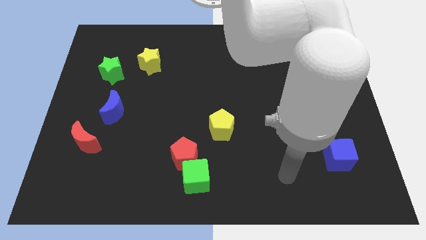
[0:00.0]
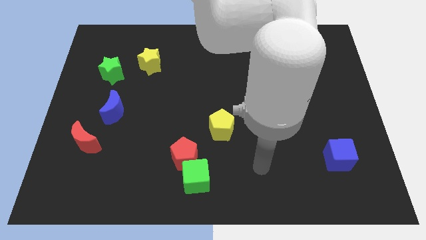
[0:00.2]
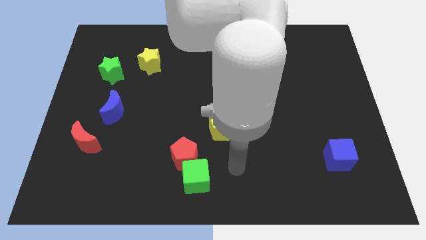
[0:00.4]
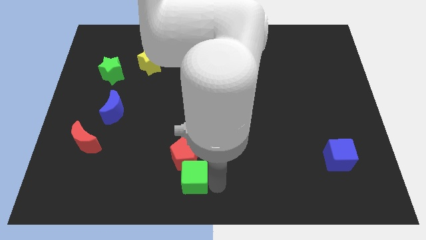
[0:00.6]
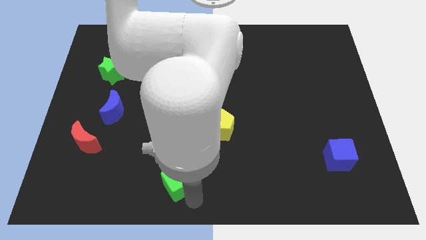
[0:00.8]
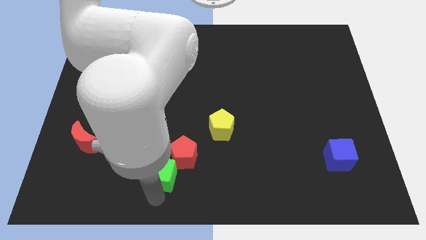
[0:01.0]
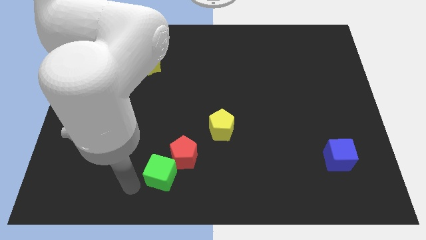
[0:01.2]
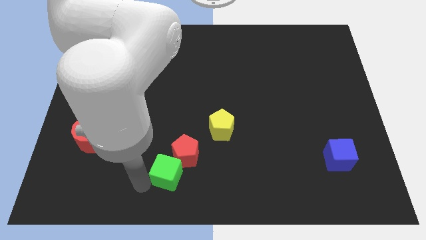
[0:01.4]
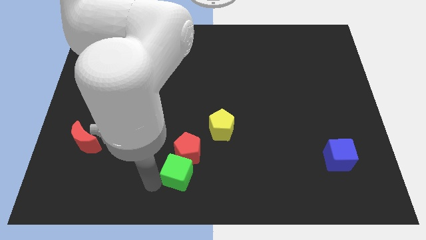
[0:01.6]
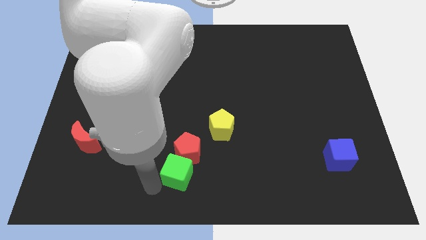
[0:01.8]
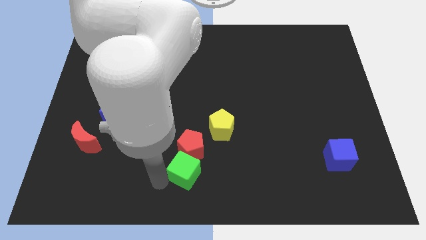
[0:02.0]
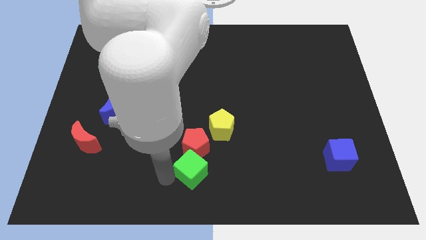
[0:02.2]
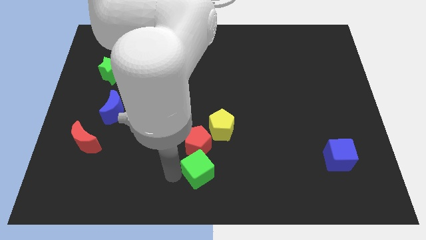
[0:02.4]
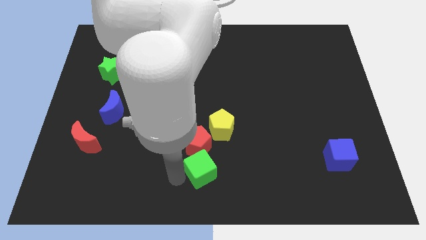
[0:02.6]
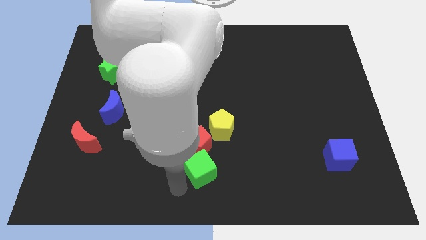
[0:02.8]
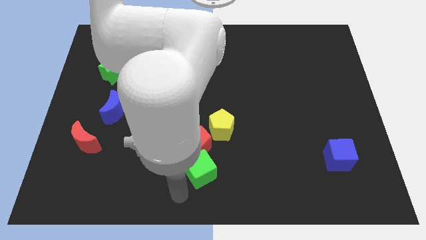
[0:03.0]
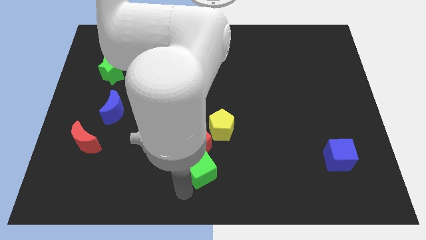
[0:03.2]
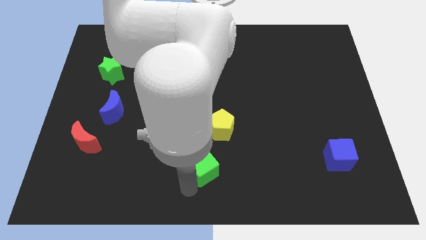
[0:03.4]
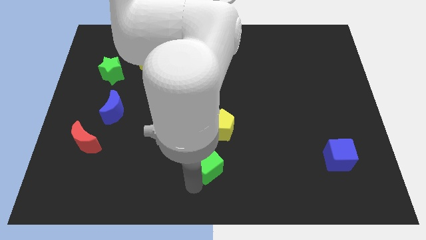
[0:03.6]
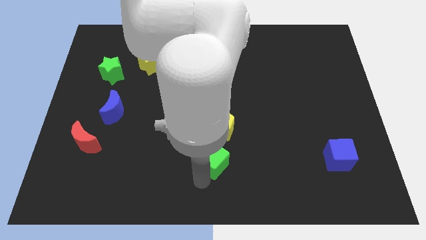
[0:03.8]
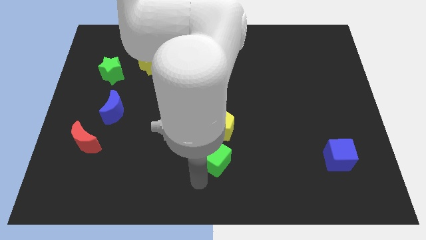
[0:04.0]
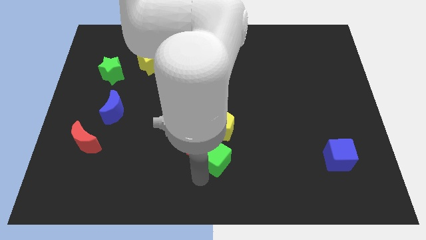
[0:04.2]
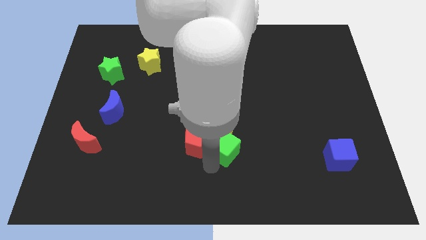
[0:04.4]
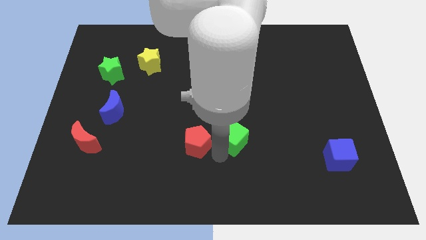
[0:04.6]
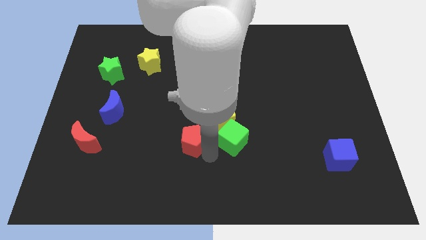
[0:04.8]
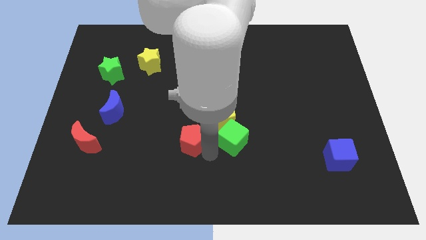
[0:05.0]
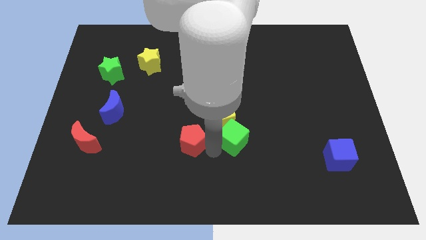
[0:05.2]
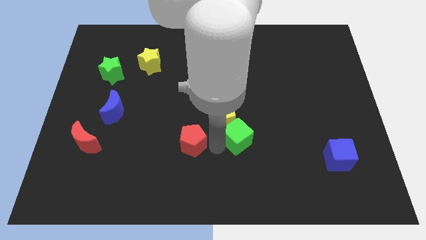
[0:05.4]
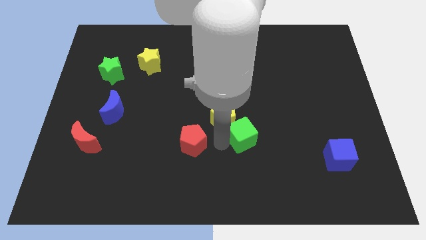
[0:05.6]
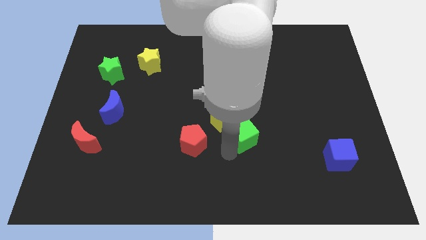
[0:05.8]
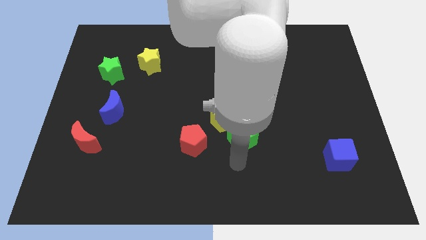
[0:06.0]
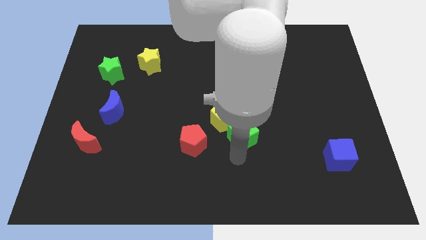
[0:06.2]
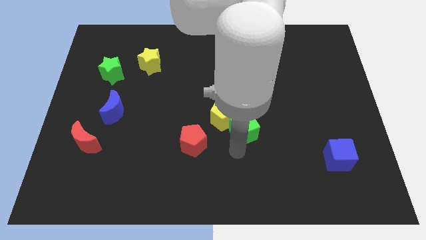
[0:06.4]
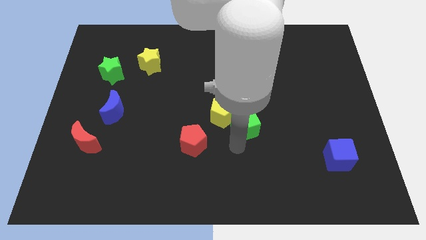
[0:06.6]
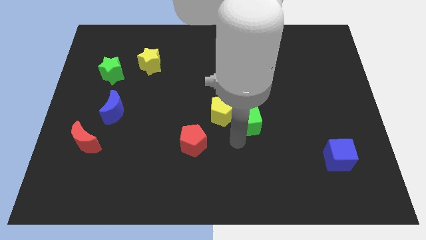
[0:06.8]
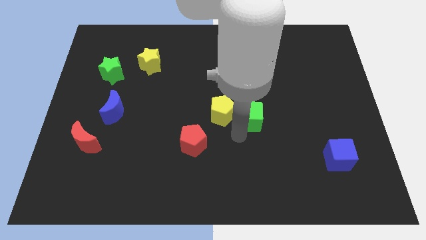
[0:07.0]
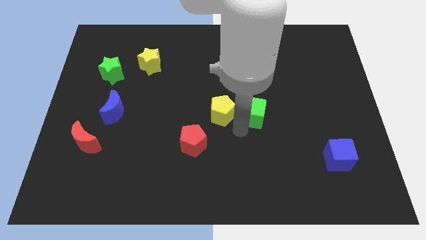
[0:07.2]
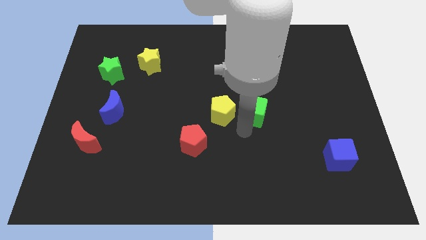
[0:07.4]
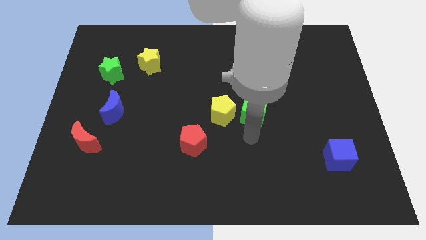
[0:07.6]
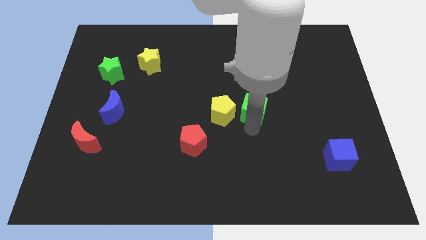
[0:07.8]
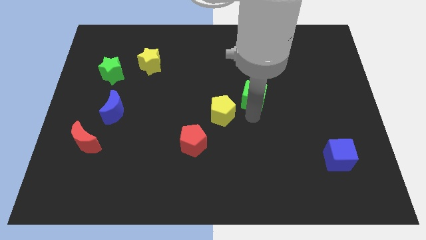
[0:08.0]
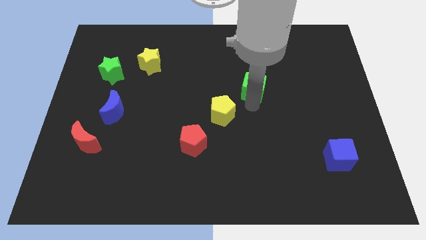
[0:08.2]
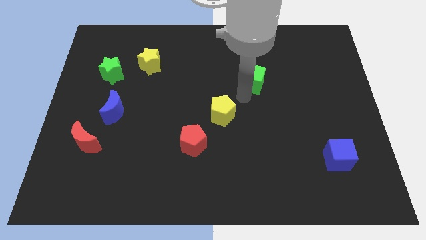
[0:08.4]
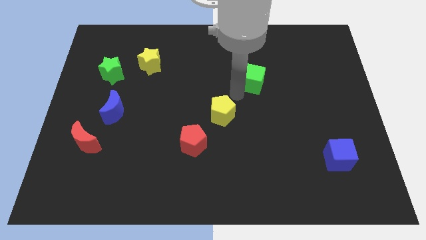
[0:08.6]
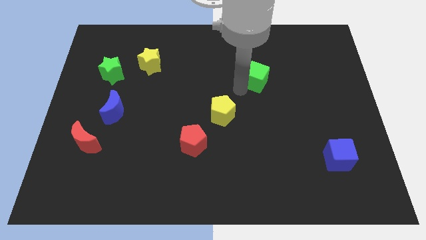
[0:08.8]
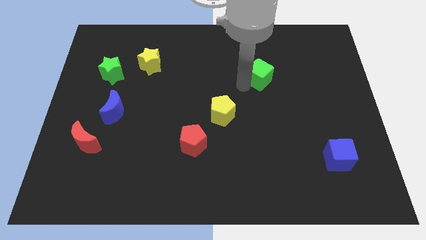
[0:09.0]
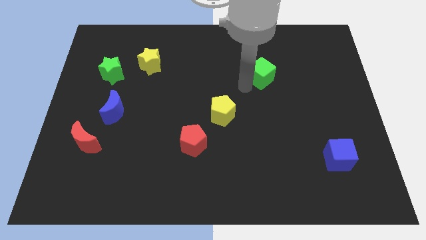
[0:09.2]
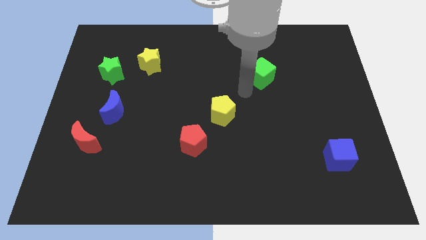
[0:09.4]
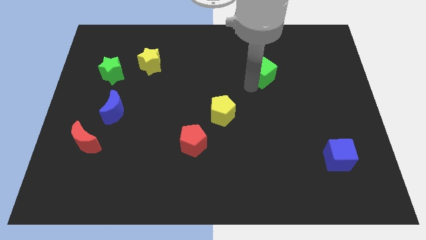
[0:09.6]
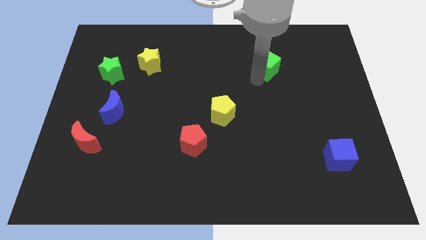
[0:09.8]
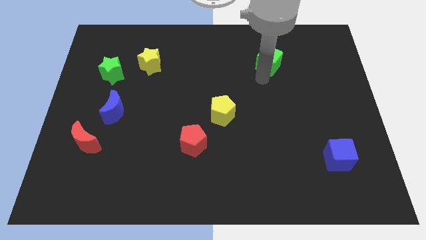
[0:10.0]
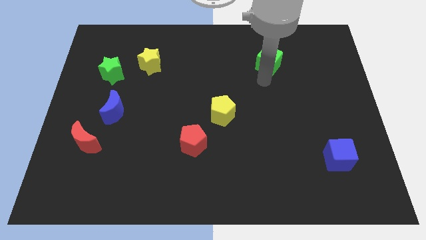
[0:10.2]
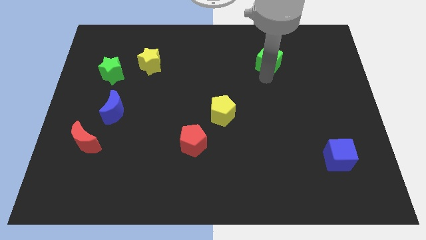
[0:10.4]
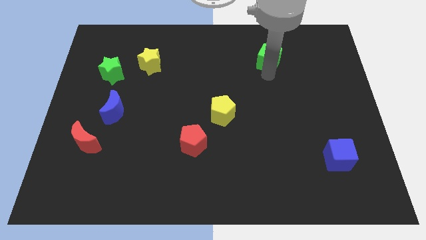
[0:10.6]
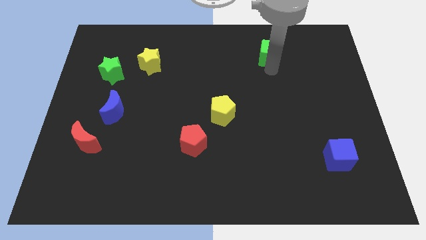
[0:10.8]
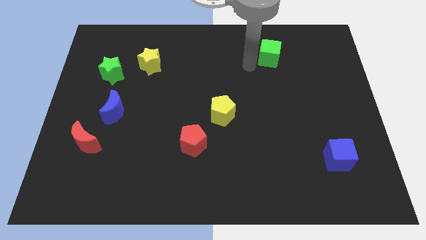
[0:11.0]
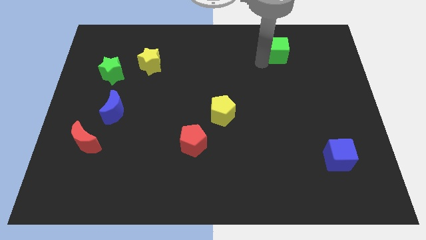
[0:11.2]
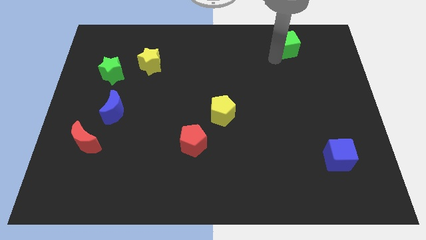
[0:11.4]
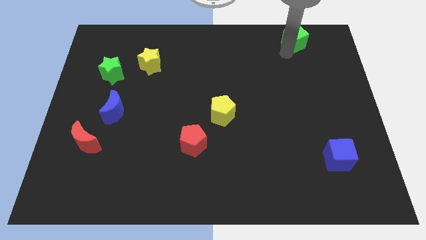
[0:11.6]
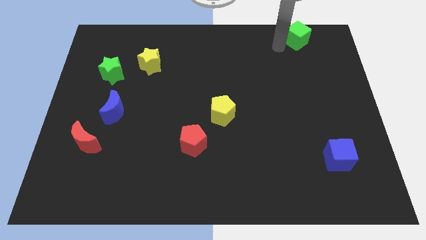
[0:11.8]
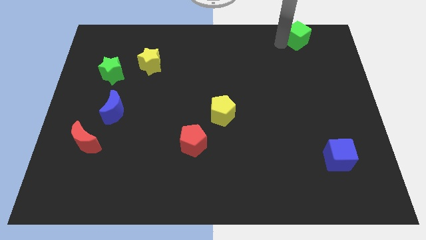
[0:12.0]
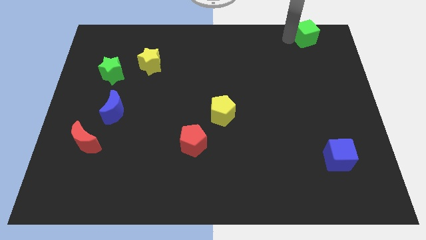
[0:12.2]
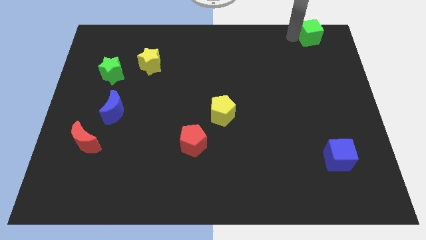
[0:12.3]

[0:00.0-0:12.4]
slide the green cube to the upper right corner

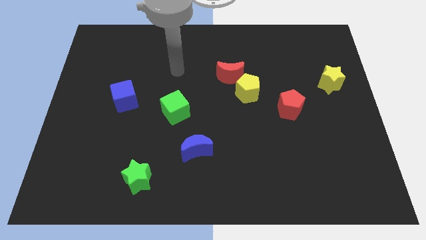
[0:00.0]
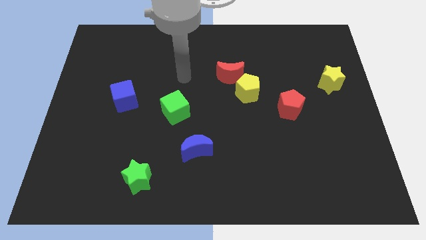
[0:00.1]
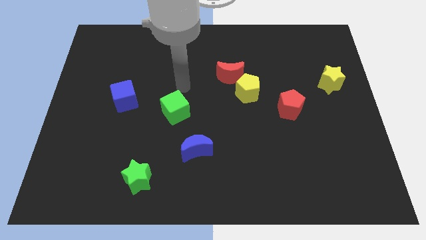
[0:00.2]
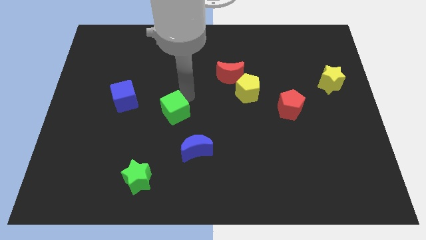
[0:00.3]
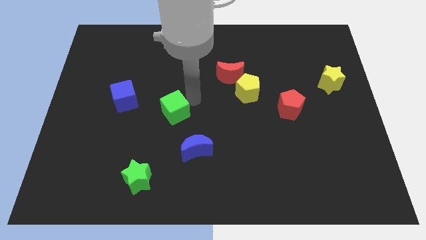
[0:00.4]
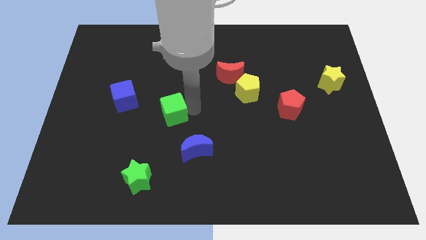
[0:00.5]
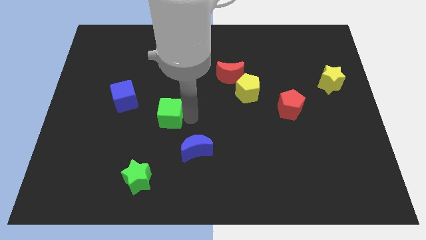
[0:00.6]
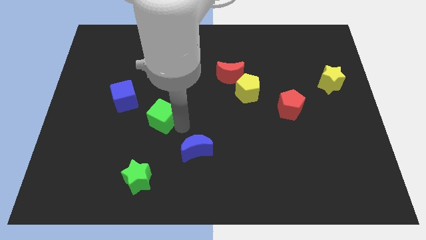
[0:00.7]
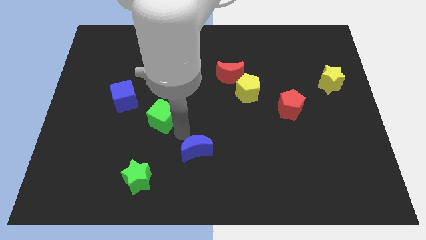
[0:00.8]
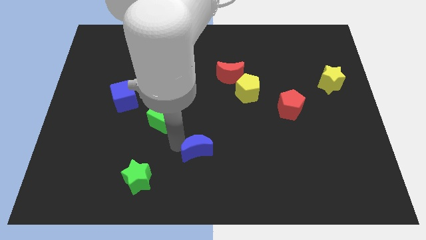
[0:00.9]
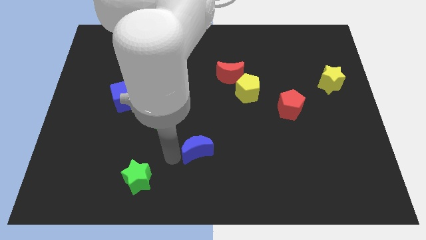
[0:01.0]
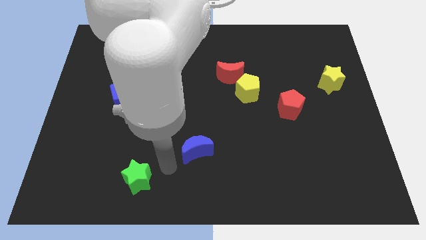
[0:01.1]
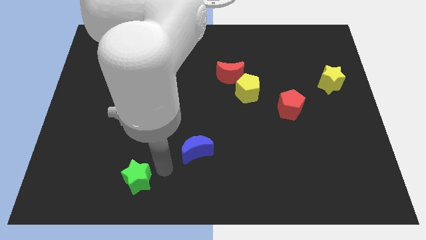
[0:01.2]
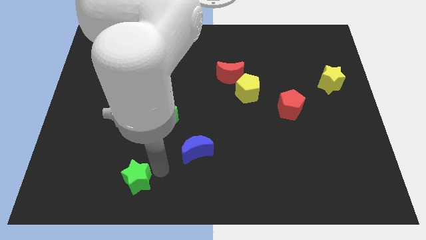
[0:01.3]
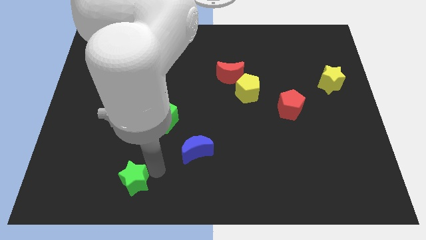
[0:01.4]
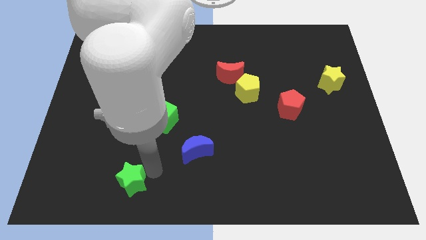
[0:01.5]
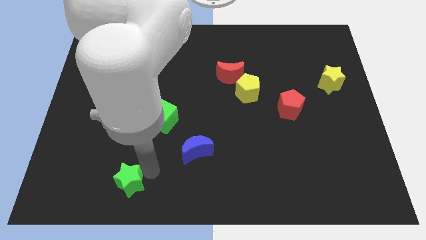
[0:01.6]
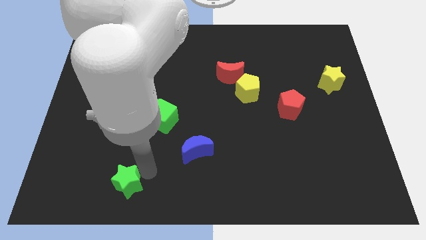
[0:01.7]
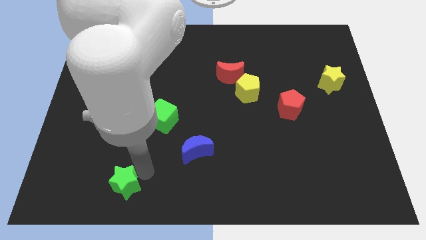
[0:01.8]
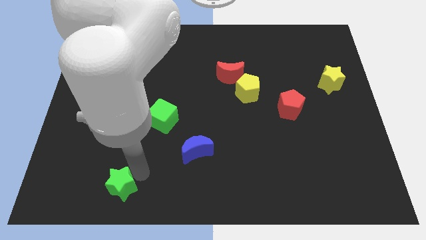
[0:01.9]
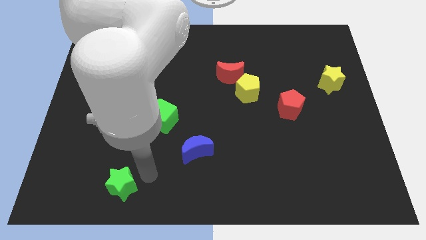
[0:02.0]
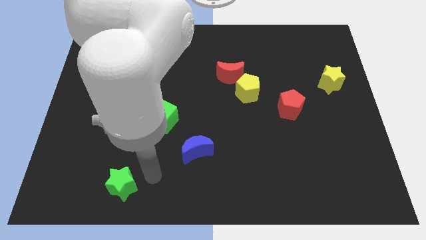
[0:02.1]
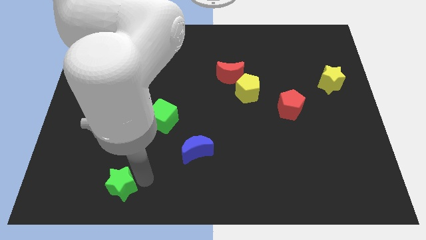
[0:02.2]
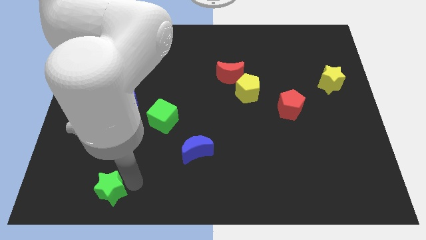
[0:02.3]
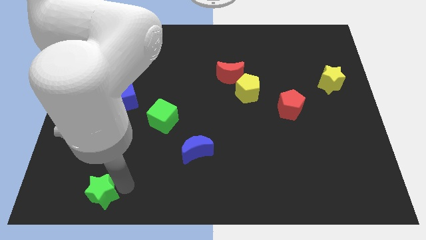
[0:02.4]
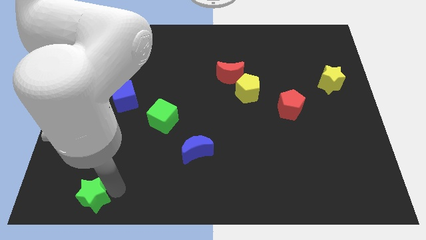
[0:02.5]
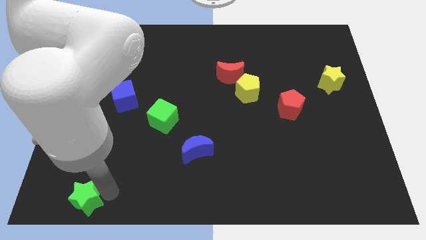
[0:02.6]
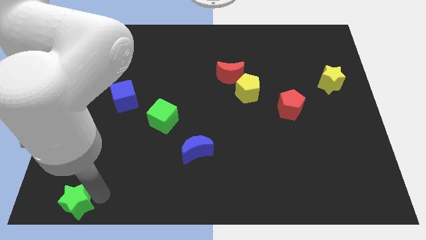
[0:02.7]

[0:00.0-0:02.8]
move the green star to the bottom left of the board
